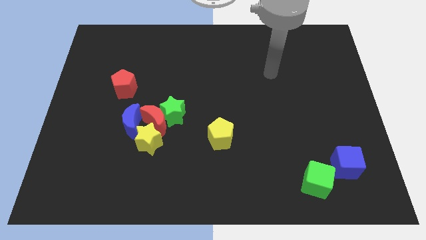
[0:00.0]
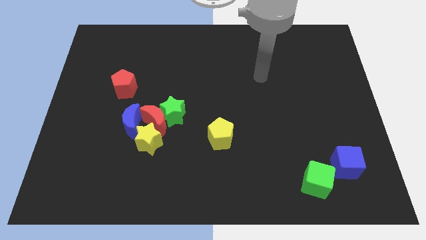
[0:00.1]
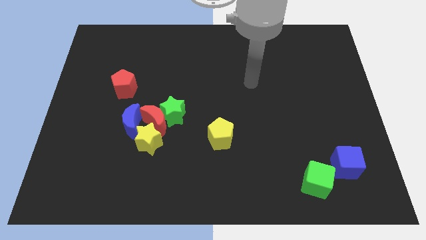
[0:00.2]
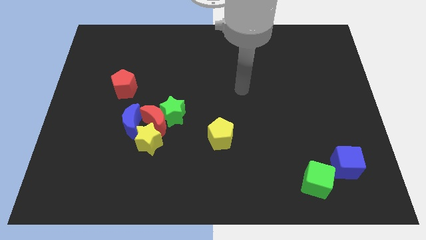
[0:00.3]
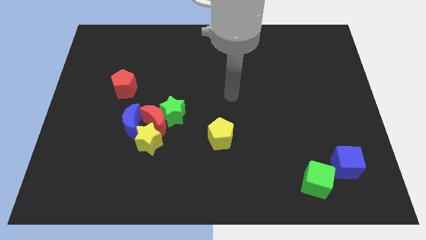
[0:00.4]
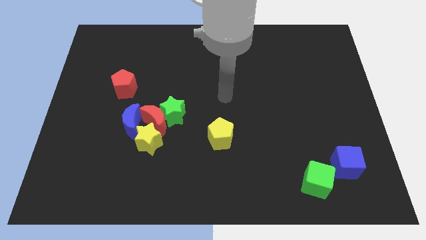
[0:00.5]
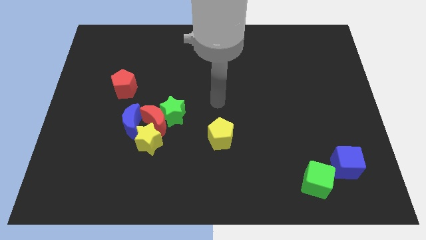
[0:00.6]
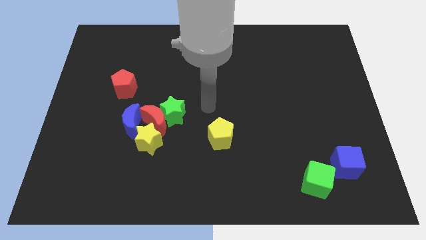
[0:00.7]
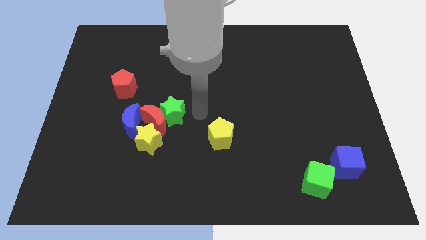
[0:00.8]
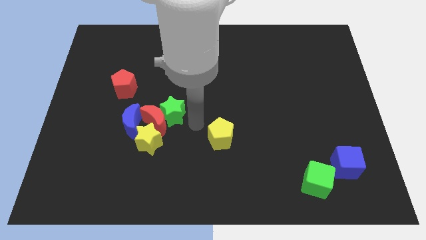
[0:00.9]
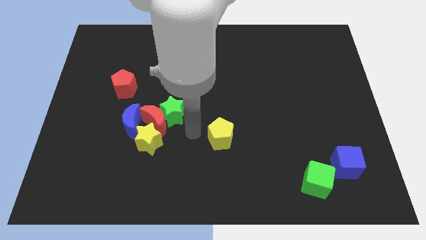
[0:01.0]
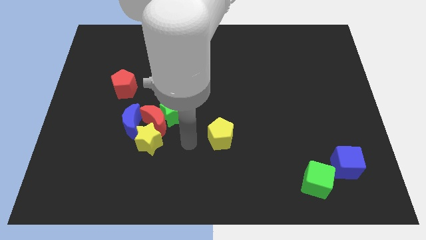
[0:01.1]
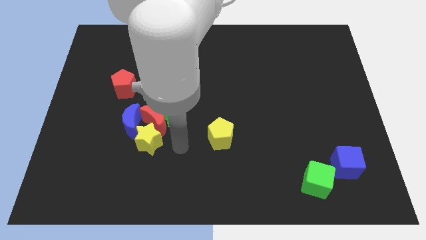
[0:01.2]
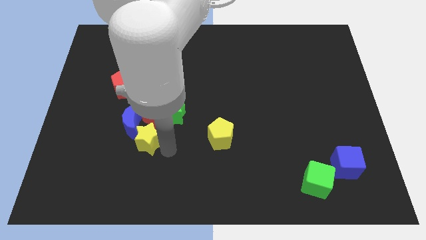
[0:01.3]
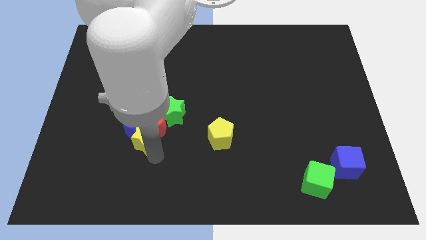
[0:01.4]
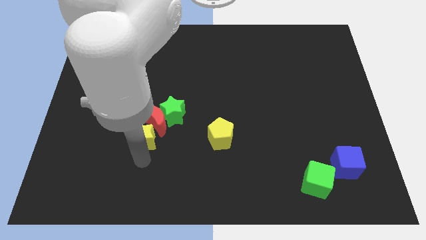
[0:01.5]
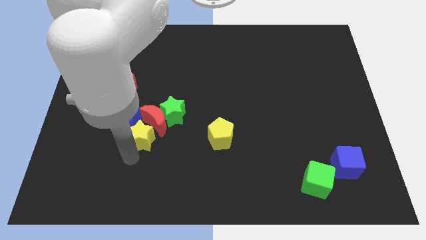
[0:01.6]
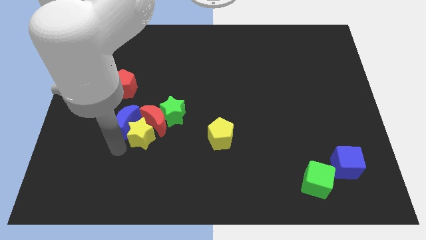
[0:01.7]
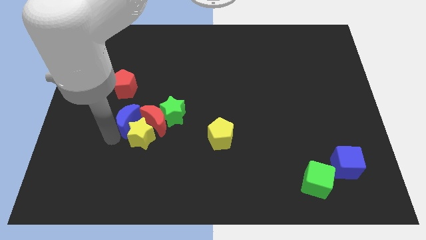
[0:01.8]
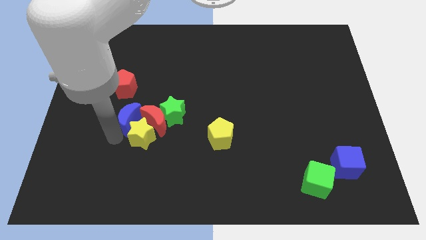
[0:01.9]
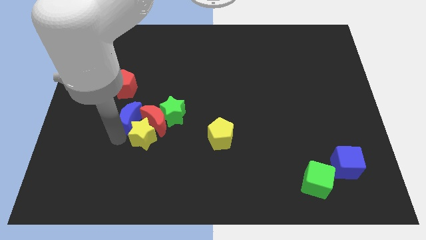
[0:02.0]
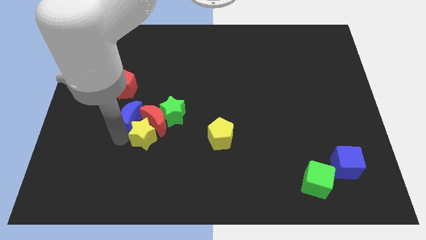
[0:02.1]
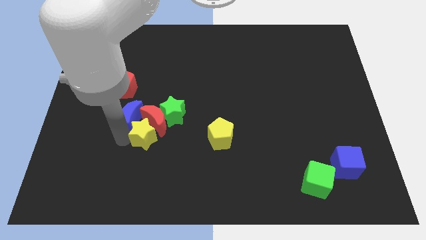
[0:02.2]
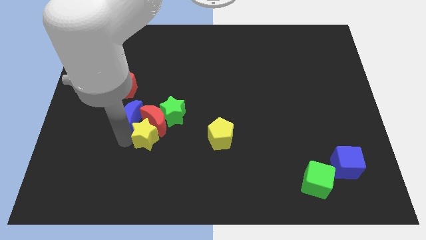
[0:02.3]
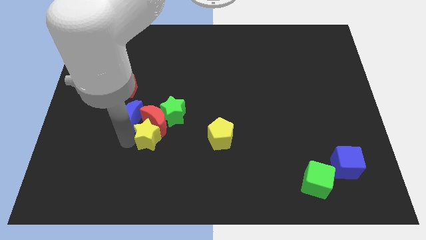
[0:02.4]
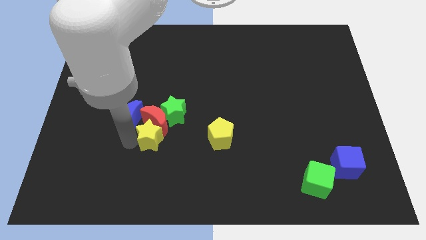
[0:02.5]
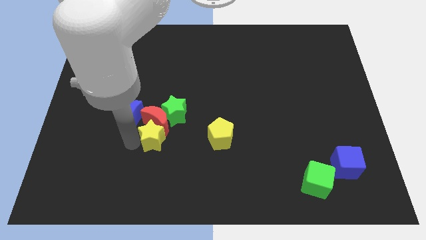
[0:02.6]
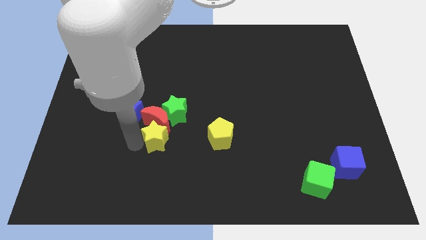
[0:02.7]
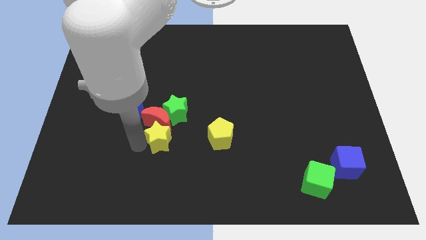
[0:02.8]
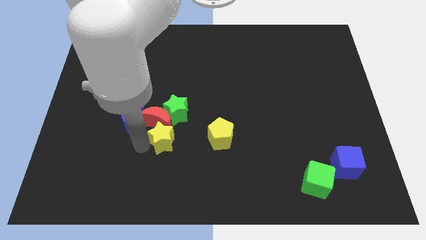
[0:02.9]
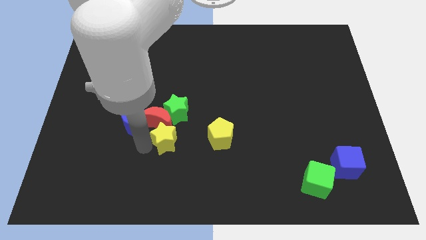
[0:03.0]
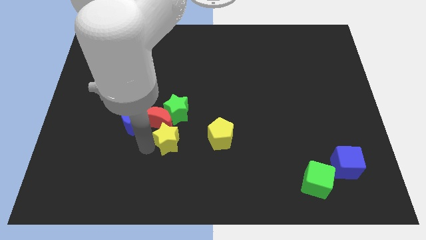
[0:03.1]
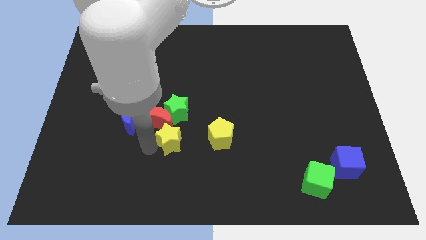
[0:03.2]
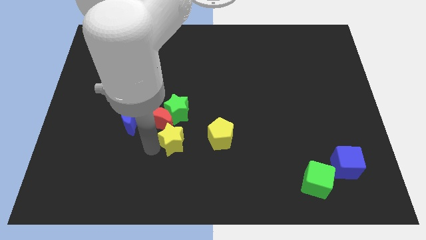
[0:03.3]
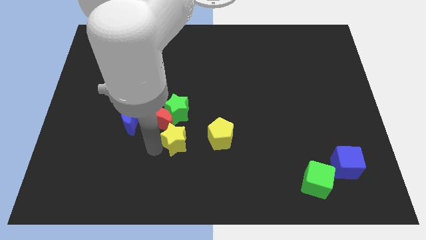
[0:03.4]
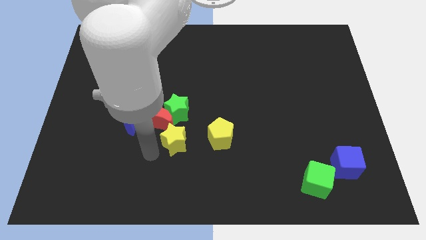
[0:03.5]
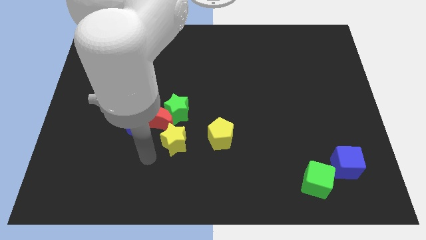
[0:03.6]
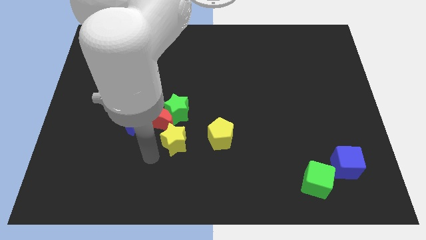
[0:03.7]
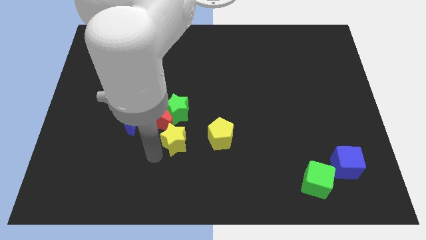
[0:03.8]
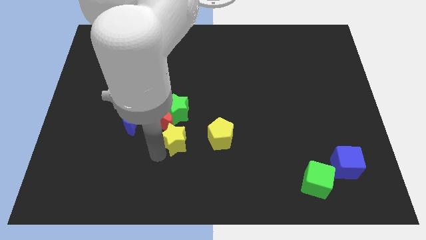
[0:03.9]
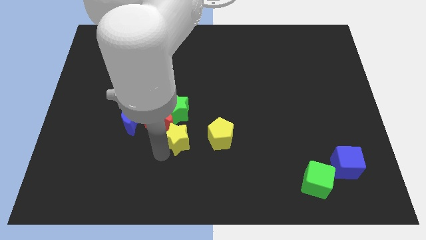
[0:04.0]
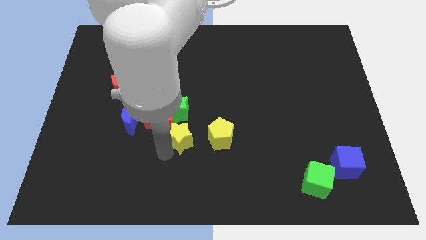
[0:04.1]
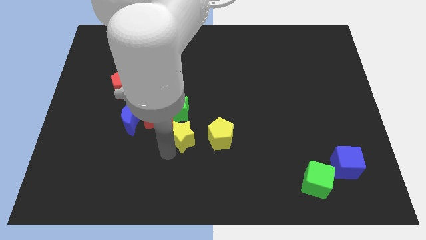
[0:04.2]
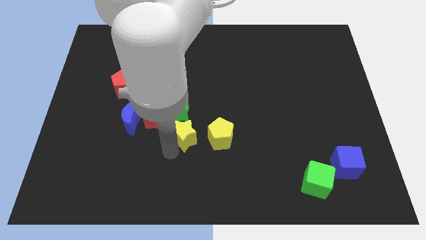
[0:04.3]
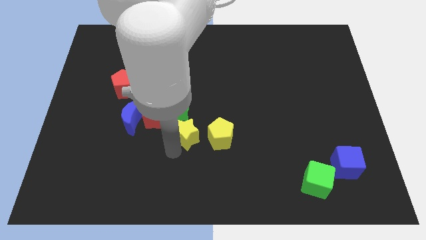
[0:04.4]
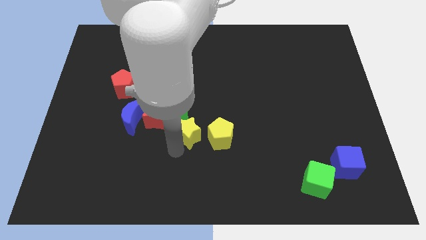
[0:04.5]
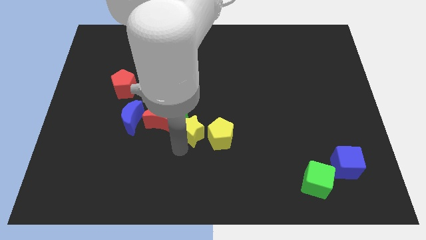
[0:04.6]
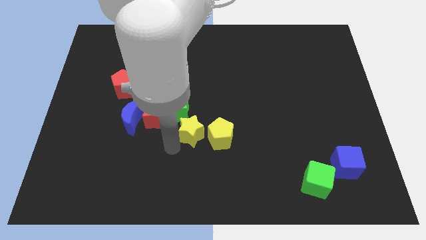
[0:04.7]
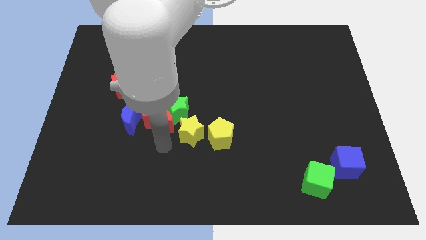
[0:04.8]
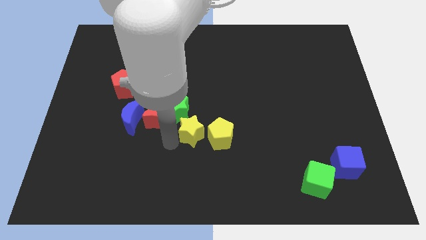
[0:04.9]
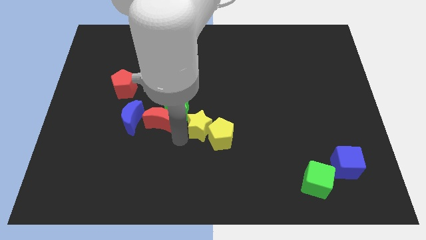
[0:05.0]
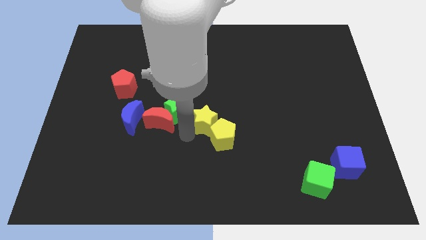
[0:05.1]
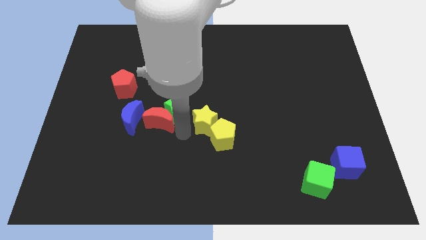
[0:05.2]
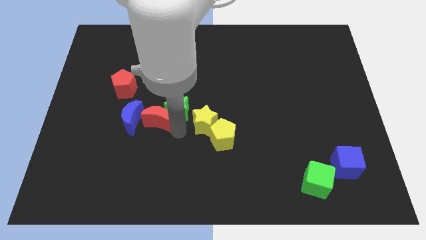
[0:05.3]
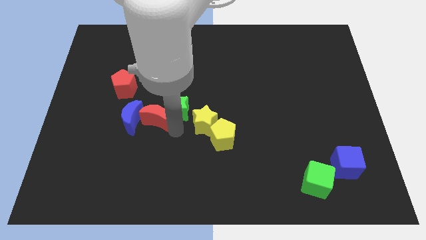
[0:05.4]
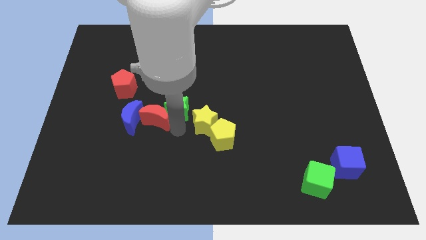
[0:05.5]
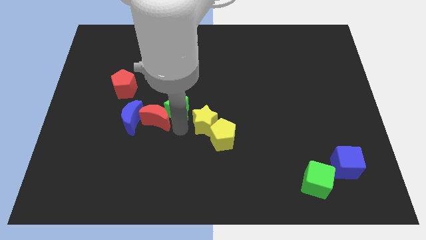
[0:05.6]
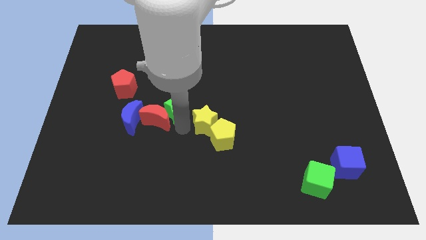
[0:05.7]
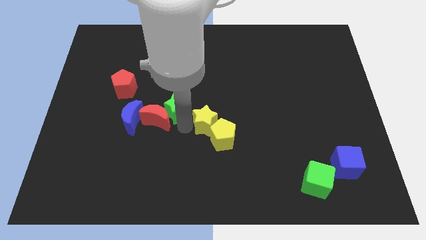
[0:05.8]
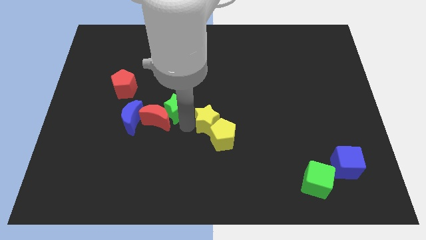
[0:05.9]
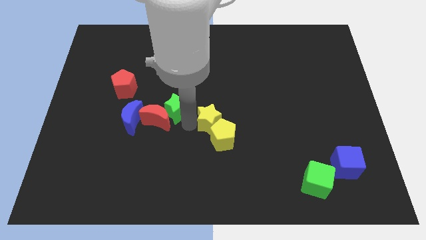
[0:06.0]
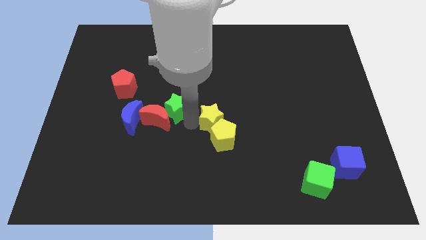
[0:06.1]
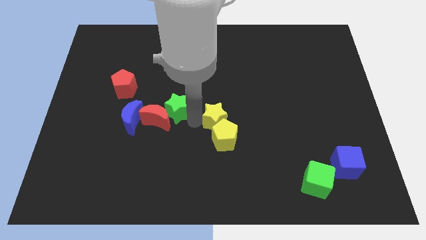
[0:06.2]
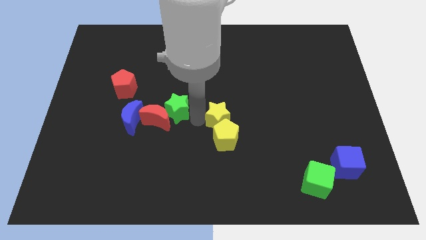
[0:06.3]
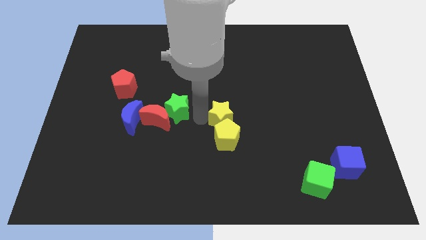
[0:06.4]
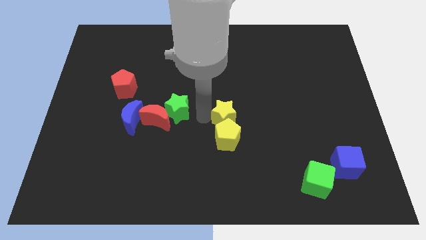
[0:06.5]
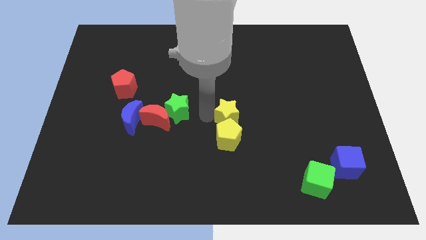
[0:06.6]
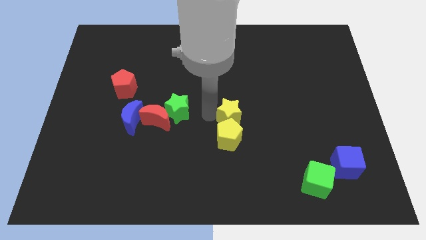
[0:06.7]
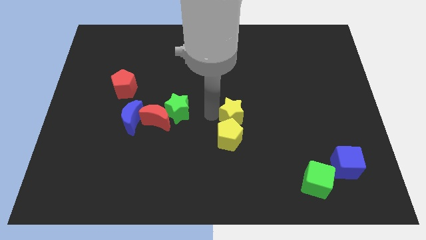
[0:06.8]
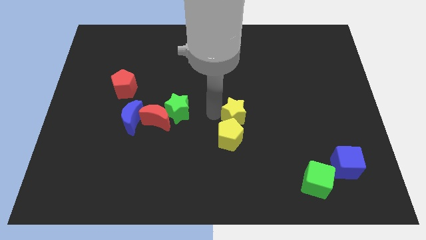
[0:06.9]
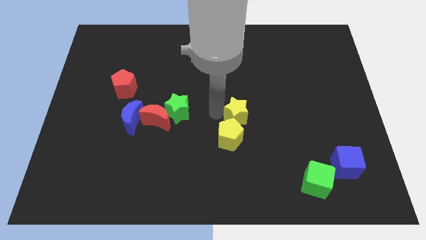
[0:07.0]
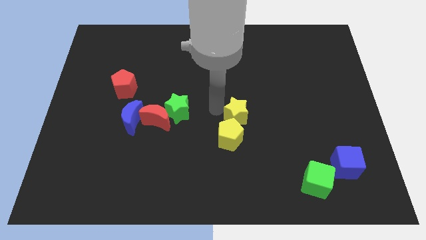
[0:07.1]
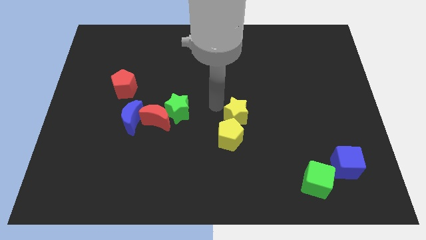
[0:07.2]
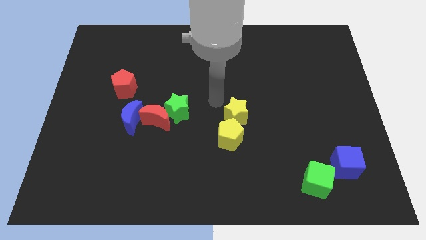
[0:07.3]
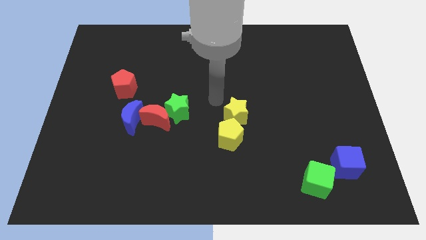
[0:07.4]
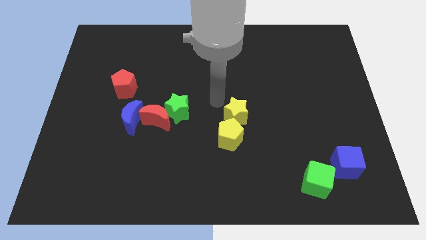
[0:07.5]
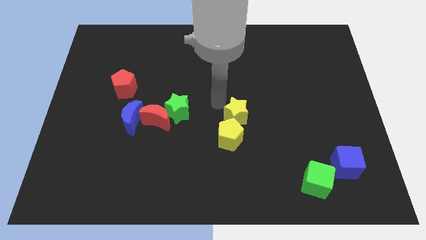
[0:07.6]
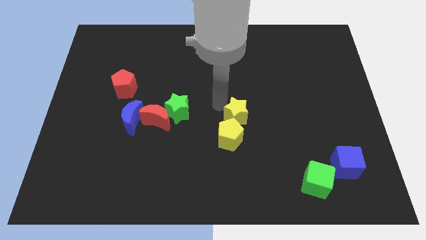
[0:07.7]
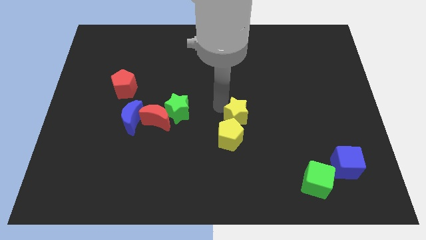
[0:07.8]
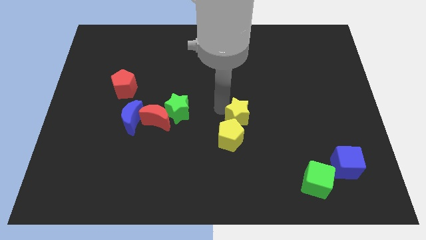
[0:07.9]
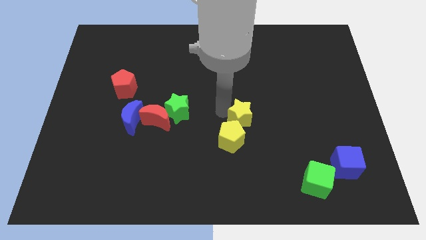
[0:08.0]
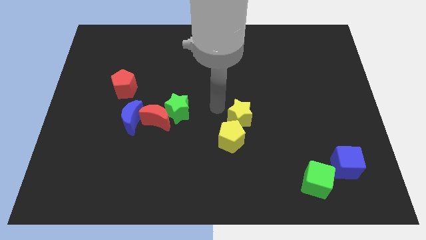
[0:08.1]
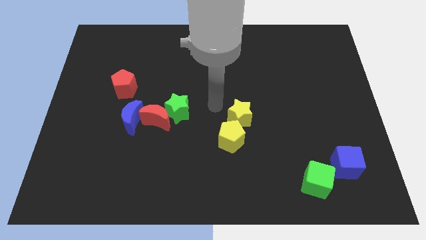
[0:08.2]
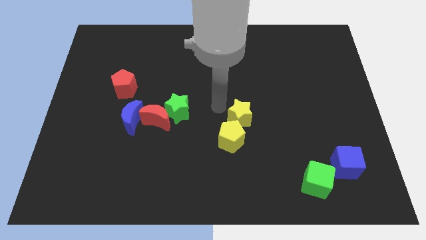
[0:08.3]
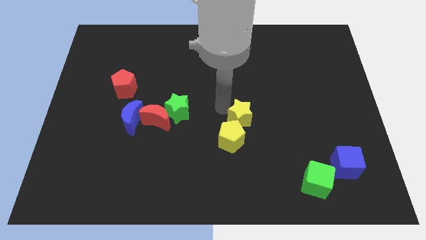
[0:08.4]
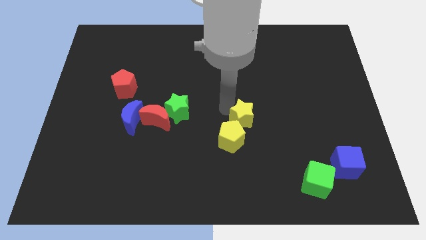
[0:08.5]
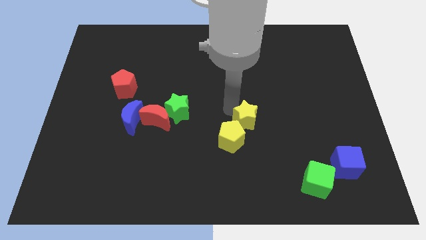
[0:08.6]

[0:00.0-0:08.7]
move the yellow star right
